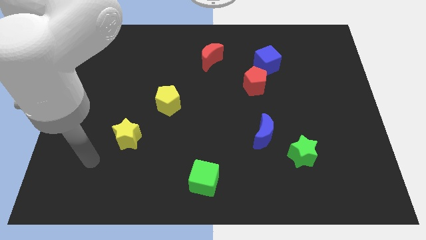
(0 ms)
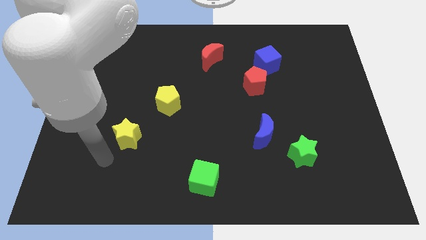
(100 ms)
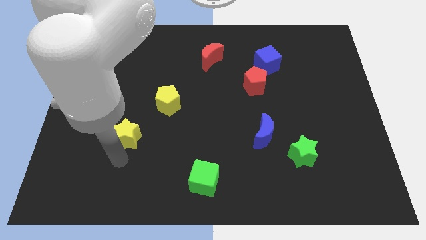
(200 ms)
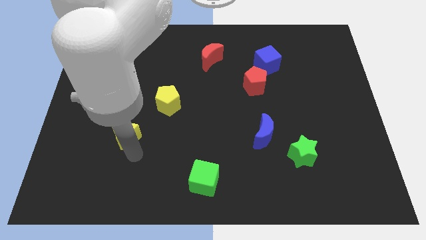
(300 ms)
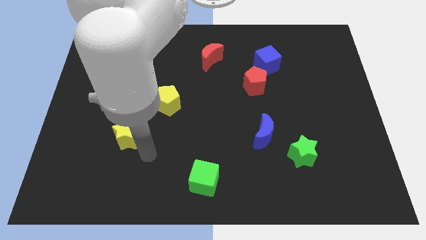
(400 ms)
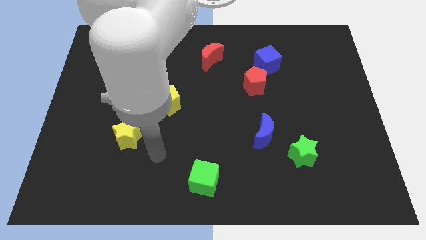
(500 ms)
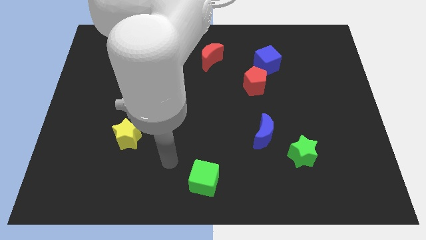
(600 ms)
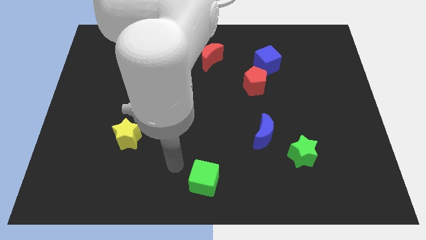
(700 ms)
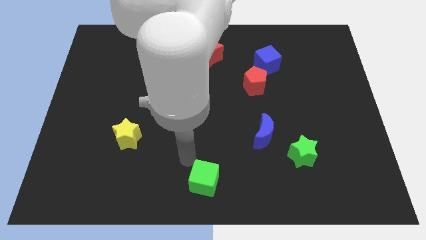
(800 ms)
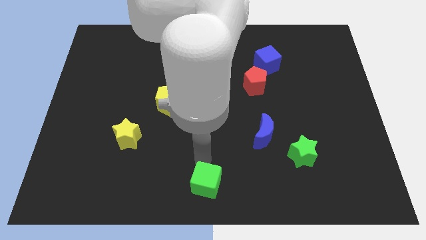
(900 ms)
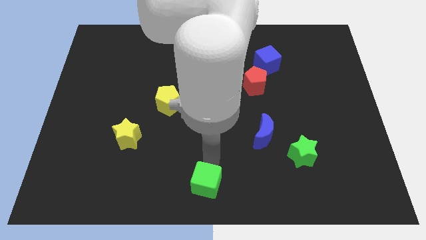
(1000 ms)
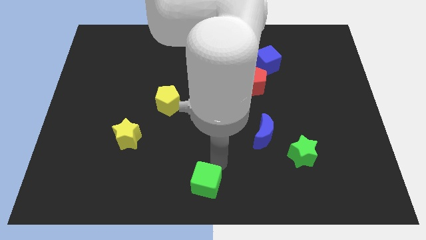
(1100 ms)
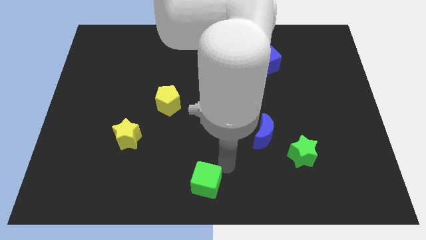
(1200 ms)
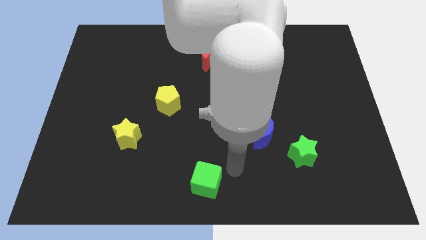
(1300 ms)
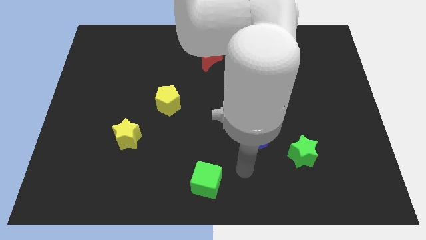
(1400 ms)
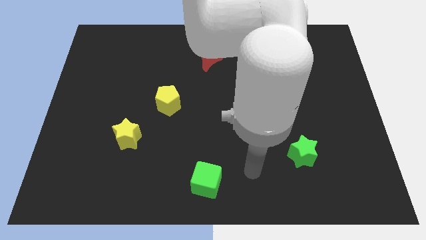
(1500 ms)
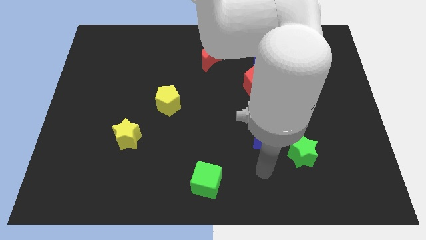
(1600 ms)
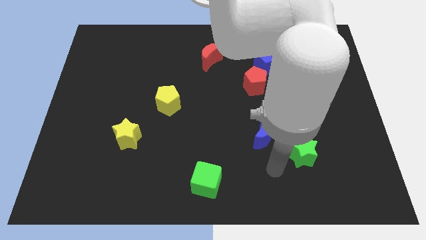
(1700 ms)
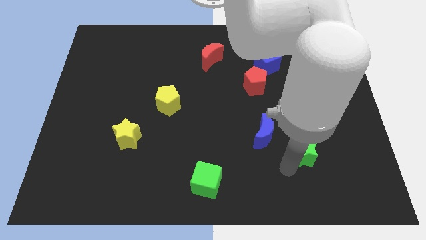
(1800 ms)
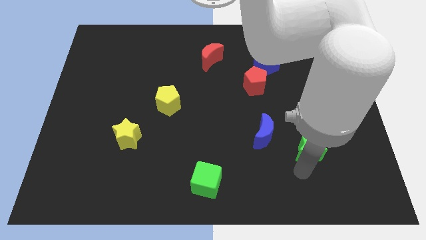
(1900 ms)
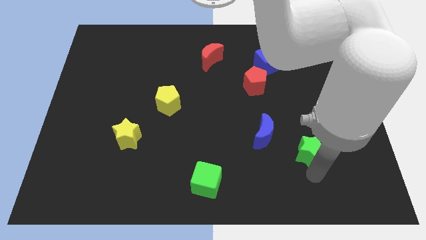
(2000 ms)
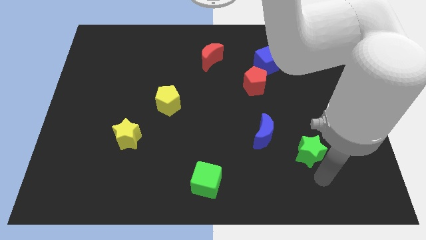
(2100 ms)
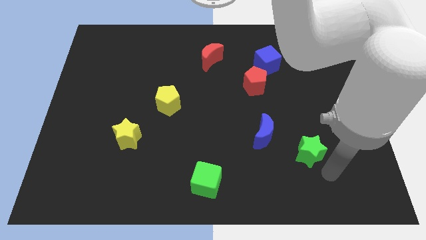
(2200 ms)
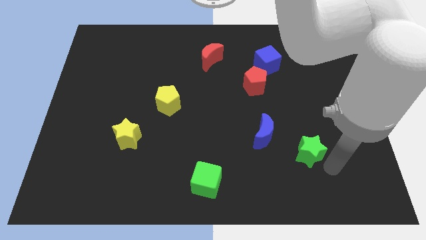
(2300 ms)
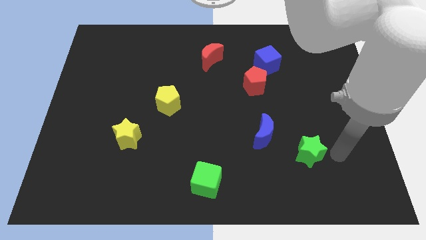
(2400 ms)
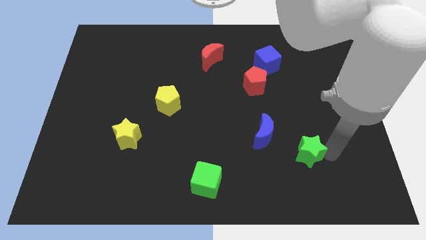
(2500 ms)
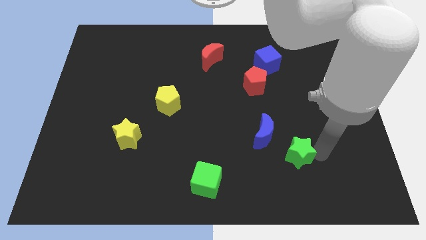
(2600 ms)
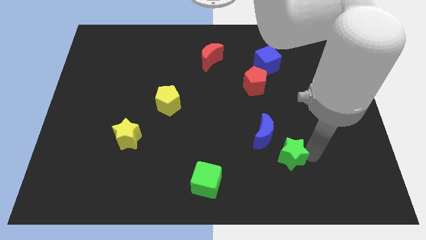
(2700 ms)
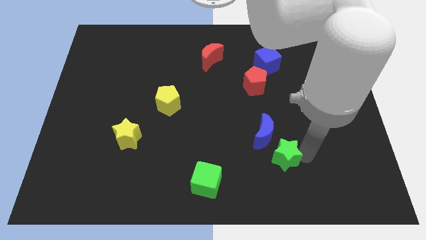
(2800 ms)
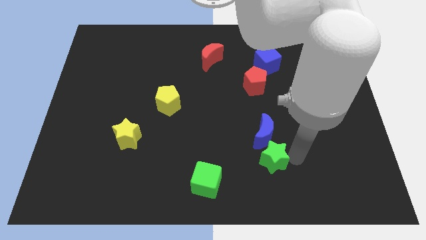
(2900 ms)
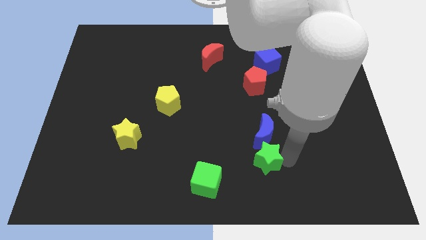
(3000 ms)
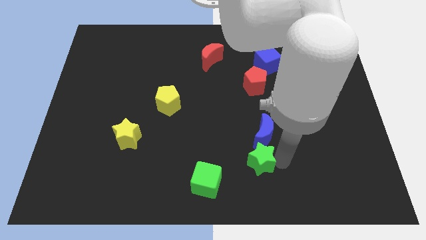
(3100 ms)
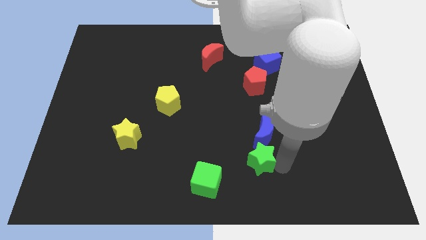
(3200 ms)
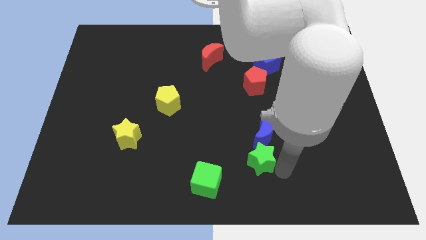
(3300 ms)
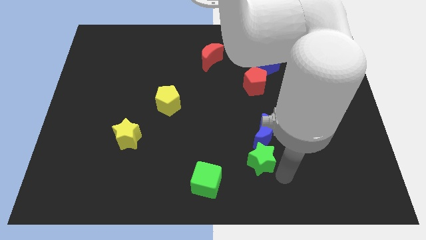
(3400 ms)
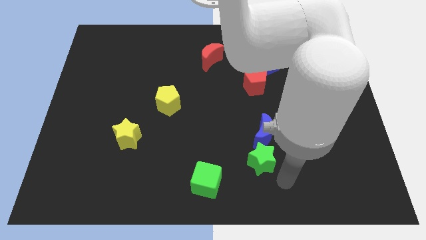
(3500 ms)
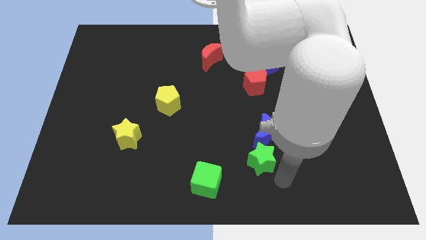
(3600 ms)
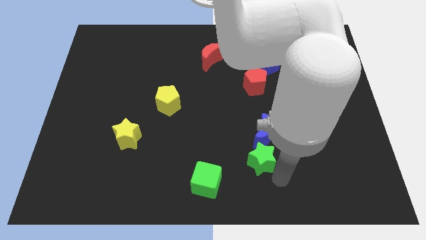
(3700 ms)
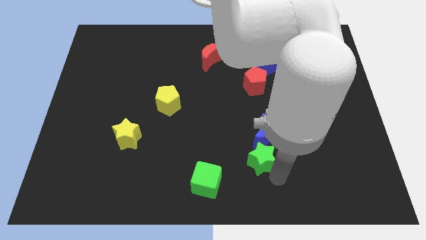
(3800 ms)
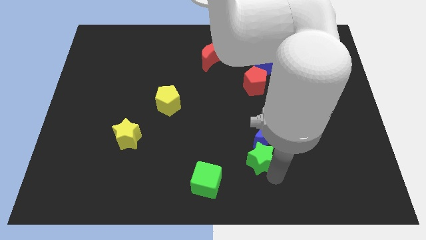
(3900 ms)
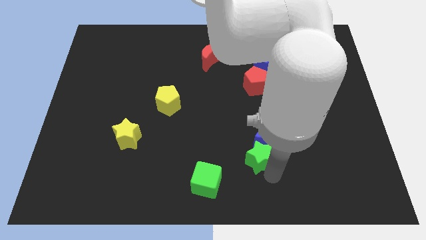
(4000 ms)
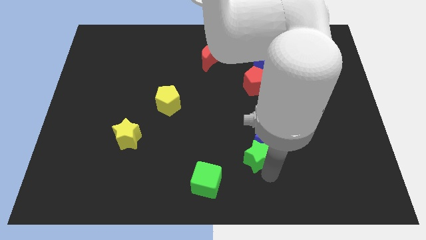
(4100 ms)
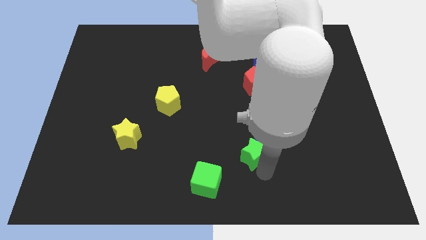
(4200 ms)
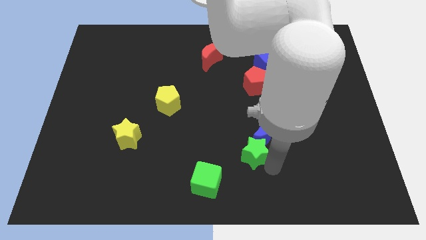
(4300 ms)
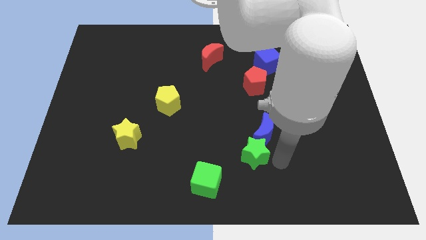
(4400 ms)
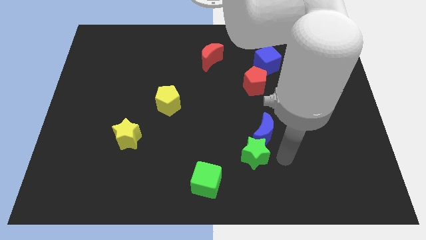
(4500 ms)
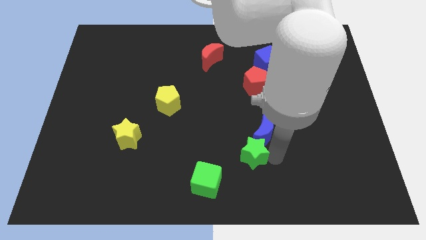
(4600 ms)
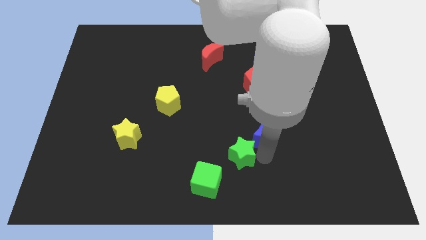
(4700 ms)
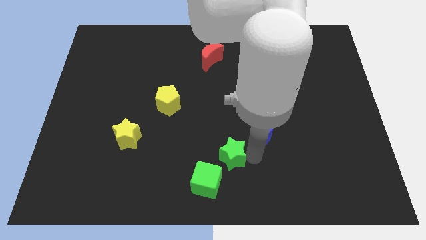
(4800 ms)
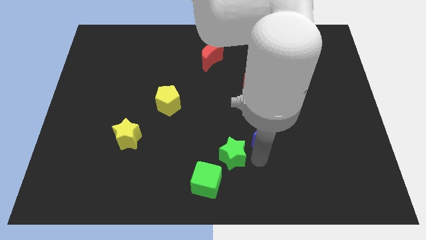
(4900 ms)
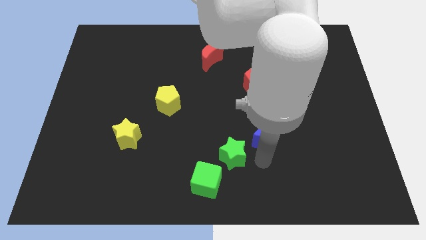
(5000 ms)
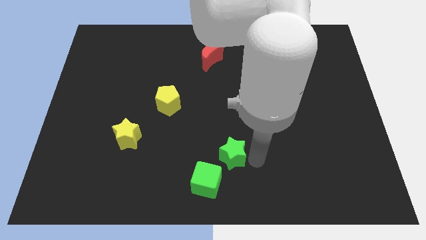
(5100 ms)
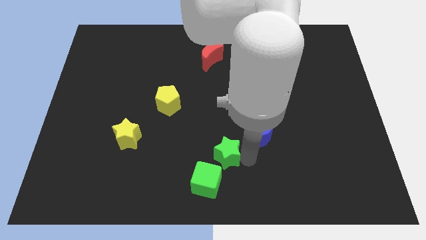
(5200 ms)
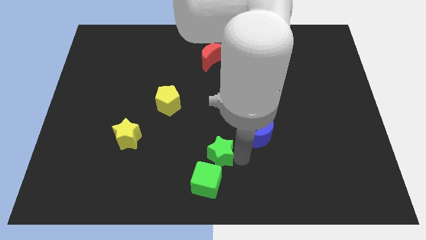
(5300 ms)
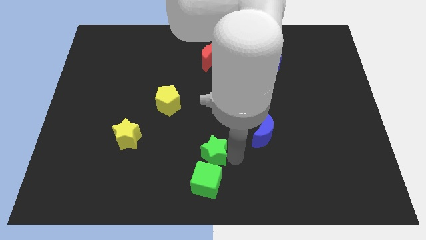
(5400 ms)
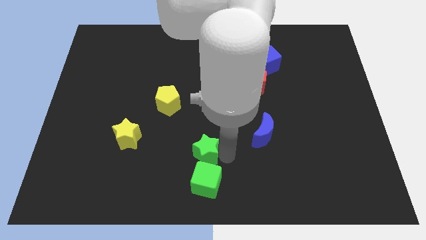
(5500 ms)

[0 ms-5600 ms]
slide the green star to the left

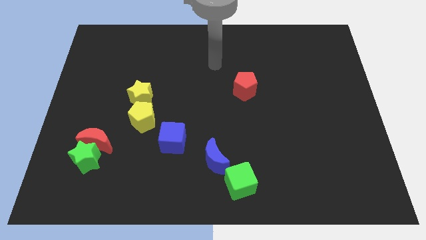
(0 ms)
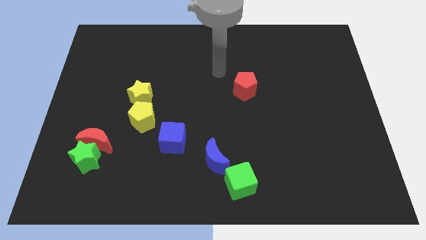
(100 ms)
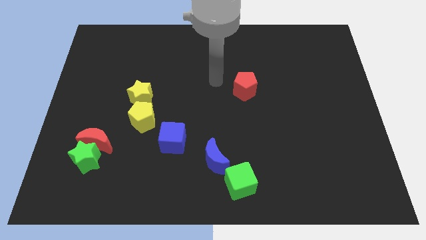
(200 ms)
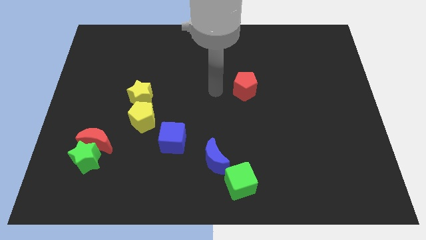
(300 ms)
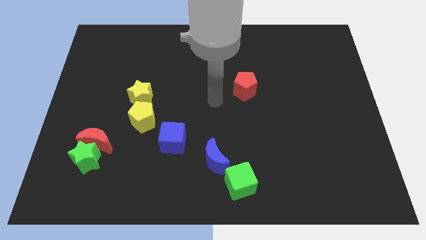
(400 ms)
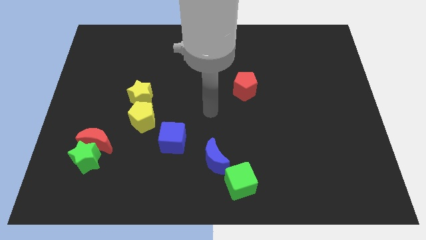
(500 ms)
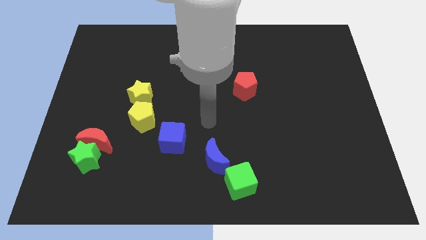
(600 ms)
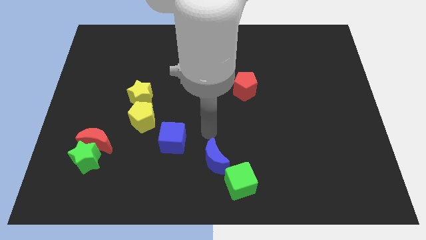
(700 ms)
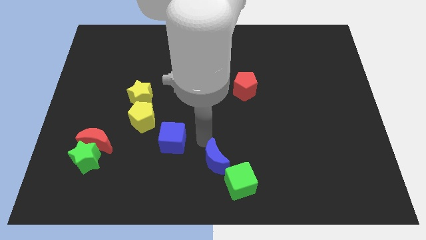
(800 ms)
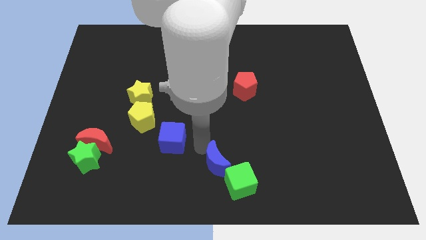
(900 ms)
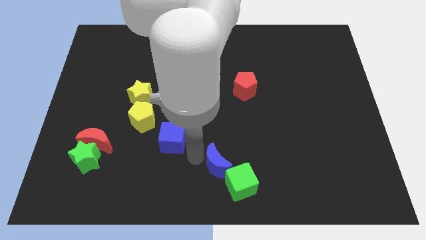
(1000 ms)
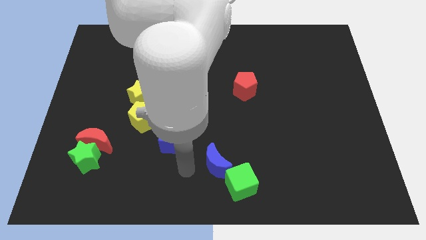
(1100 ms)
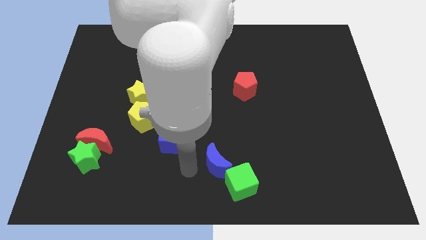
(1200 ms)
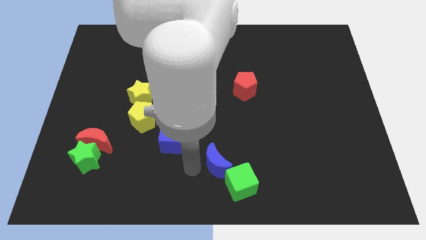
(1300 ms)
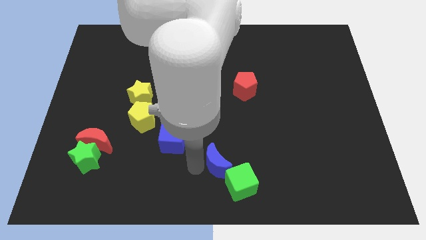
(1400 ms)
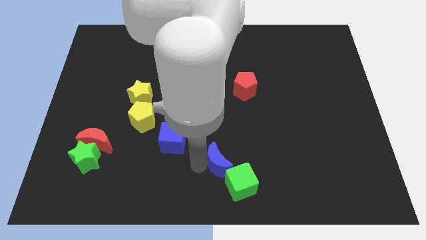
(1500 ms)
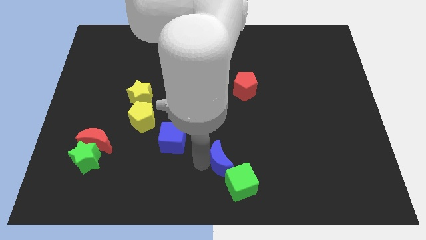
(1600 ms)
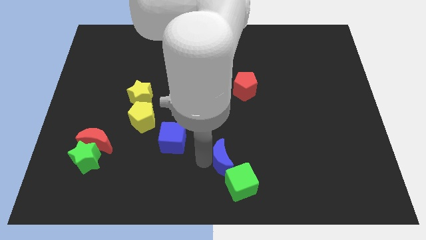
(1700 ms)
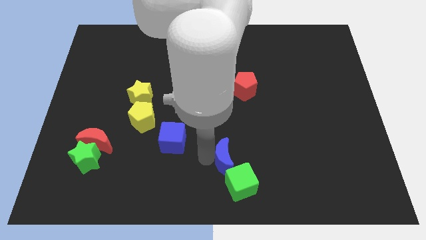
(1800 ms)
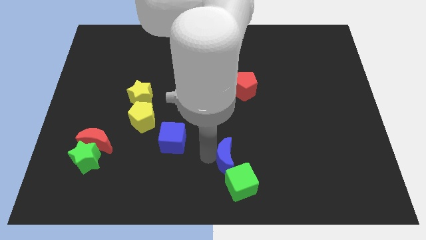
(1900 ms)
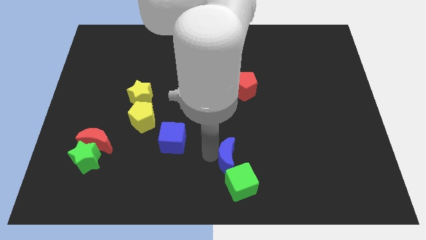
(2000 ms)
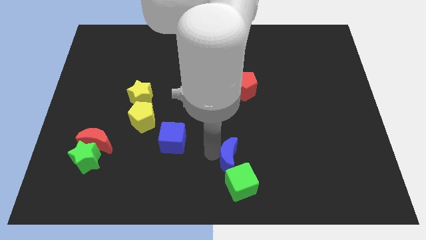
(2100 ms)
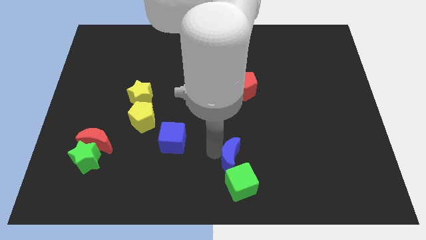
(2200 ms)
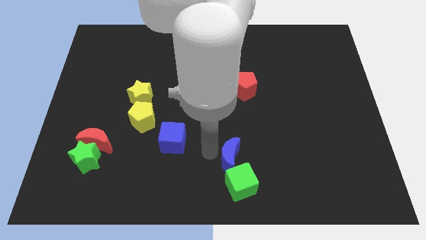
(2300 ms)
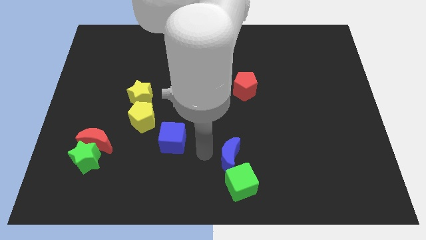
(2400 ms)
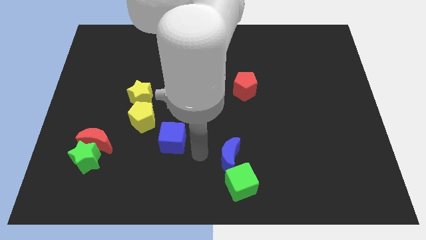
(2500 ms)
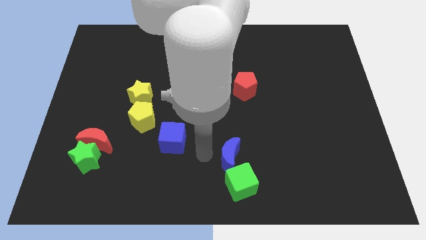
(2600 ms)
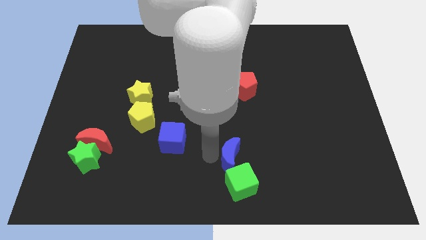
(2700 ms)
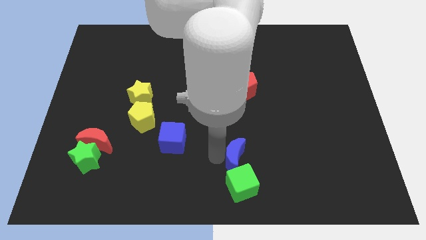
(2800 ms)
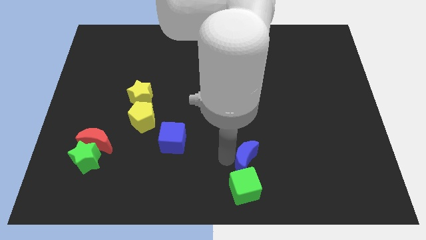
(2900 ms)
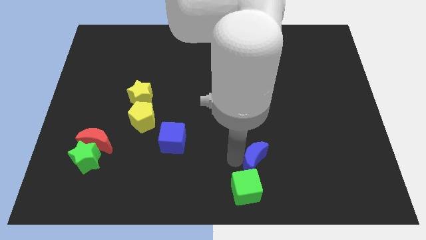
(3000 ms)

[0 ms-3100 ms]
push the blue moon a little bit to the right
